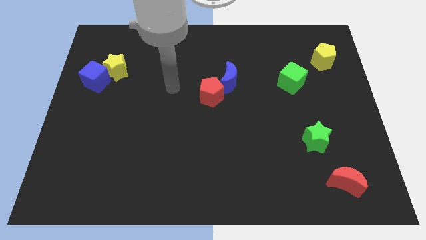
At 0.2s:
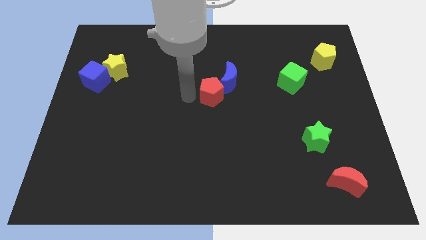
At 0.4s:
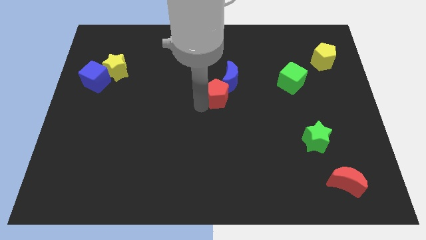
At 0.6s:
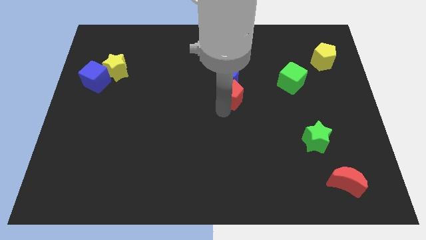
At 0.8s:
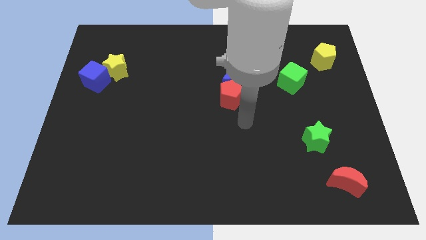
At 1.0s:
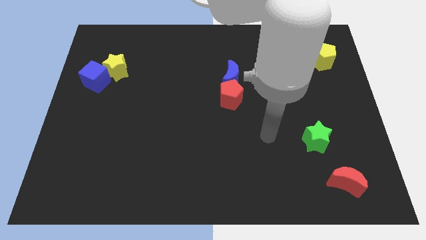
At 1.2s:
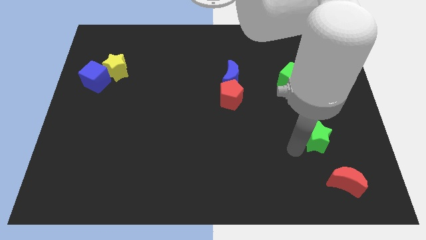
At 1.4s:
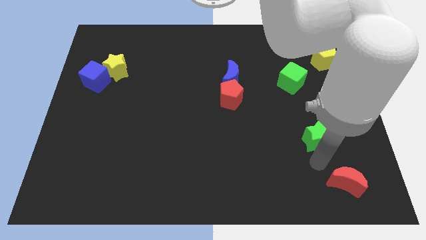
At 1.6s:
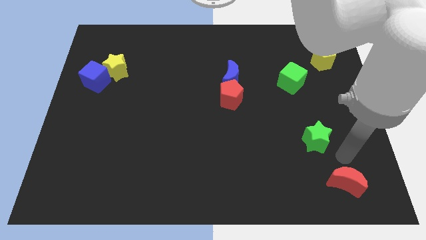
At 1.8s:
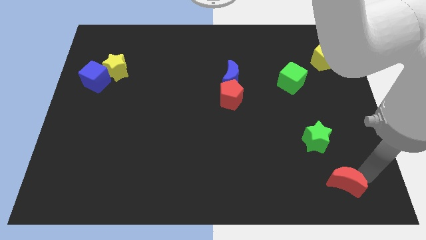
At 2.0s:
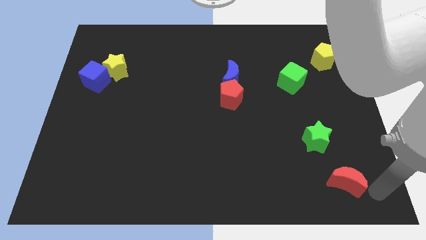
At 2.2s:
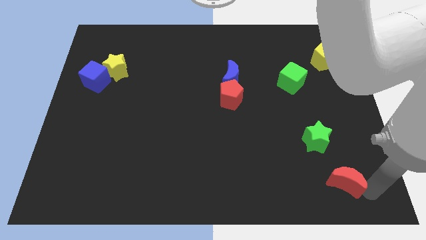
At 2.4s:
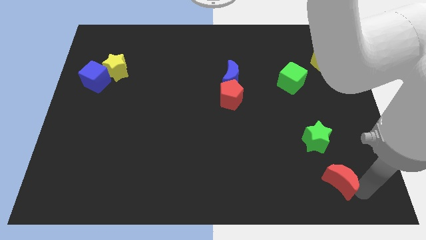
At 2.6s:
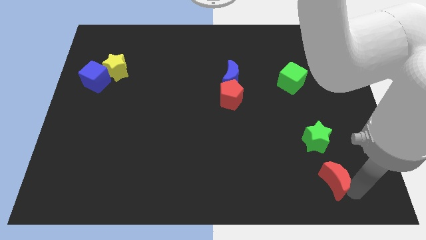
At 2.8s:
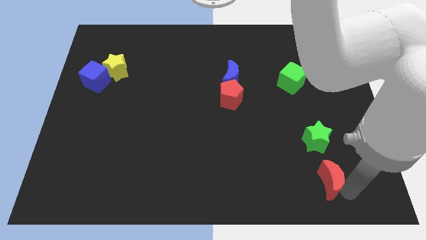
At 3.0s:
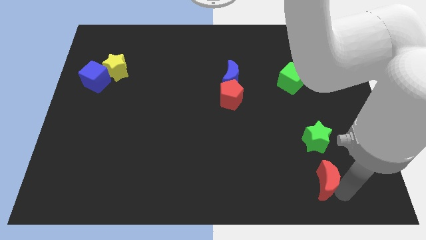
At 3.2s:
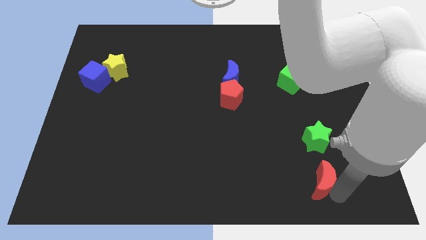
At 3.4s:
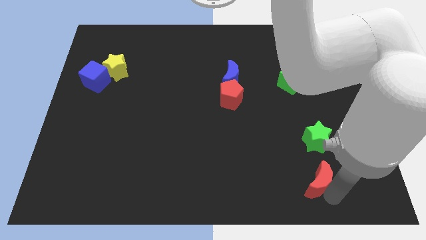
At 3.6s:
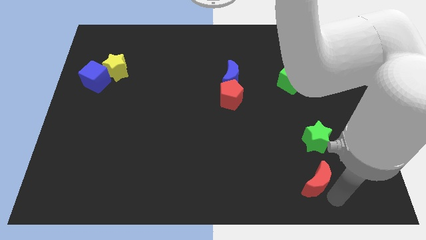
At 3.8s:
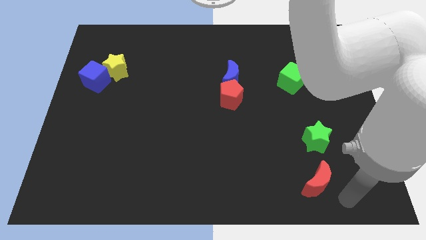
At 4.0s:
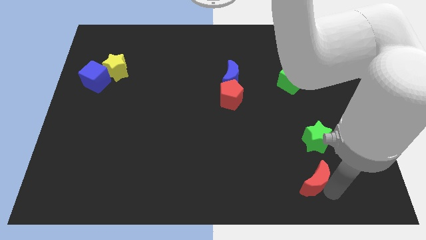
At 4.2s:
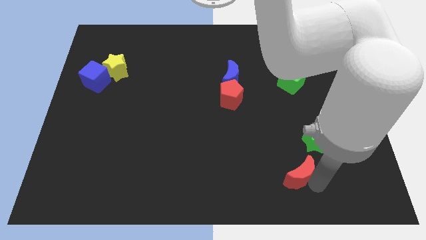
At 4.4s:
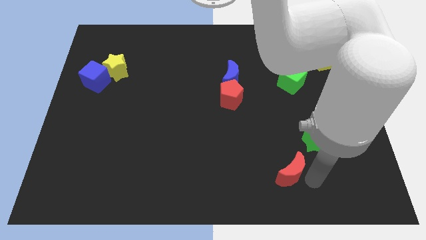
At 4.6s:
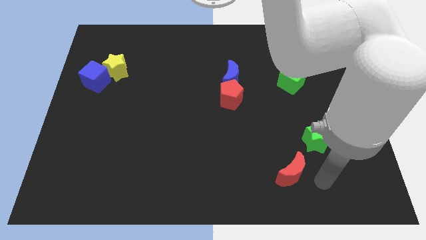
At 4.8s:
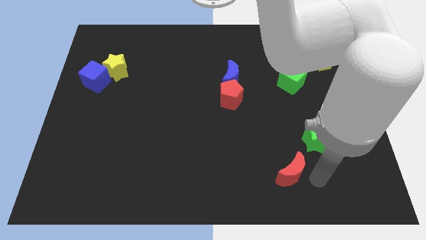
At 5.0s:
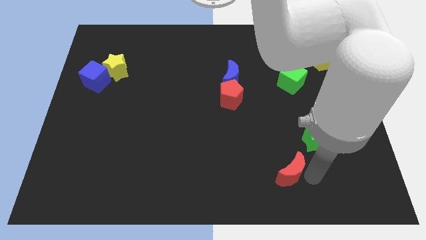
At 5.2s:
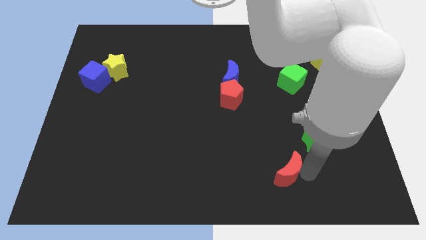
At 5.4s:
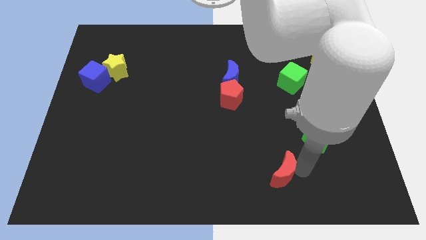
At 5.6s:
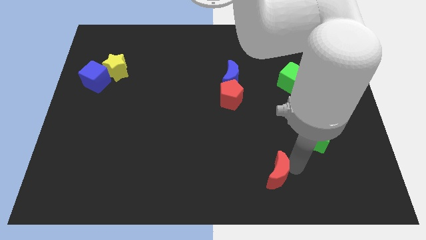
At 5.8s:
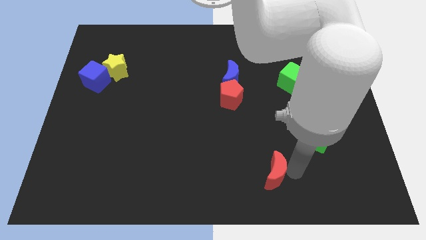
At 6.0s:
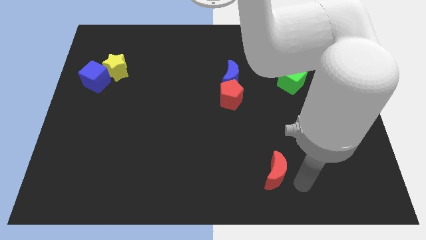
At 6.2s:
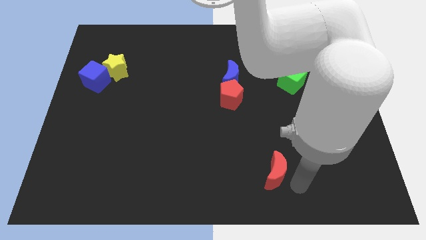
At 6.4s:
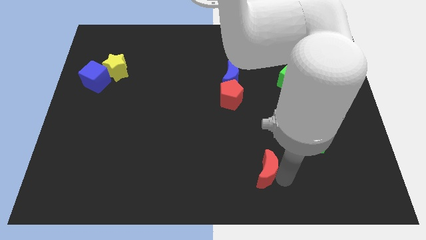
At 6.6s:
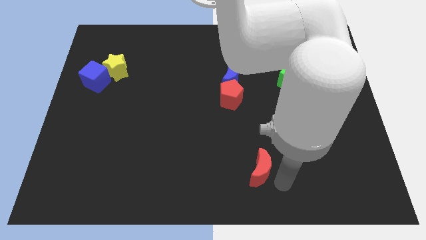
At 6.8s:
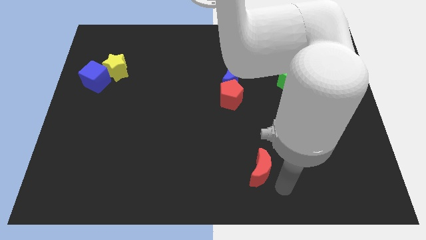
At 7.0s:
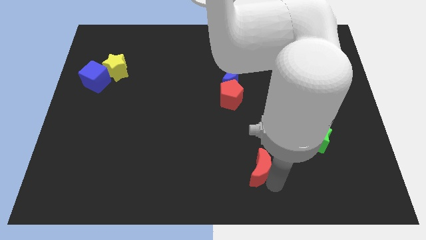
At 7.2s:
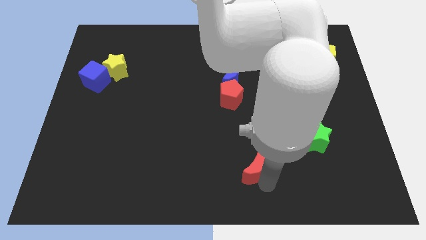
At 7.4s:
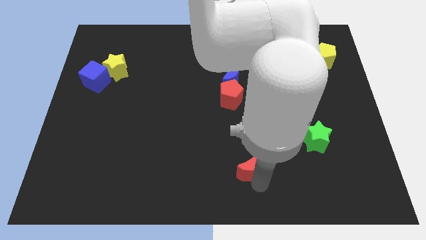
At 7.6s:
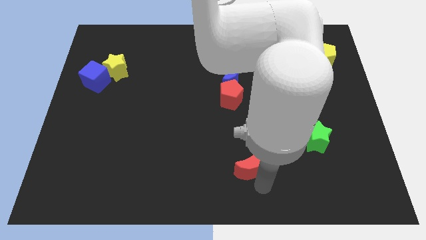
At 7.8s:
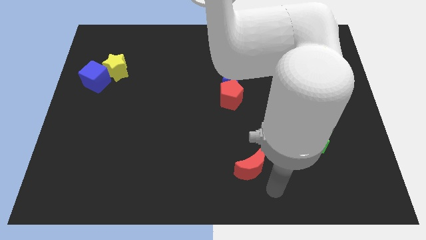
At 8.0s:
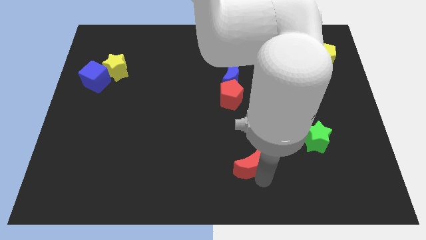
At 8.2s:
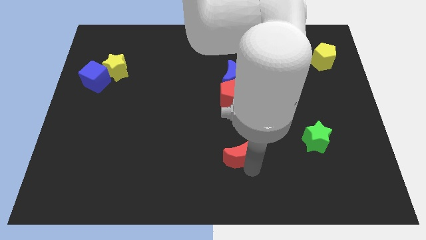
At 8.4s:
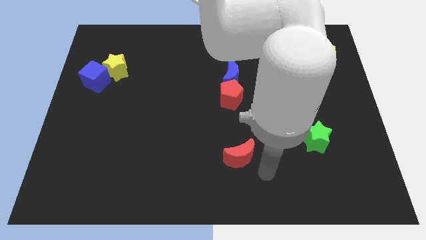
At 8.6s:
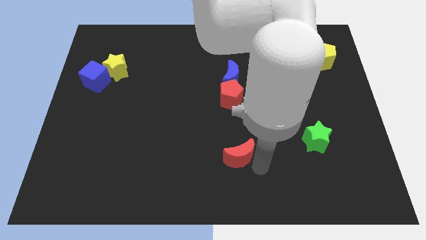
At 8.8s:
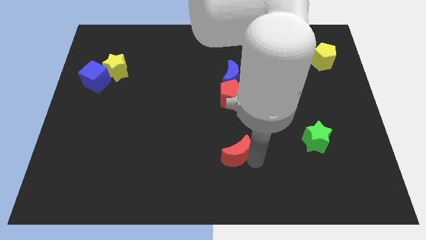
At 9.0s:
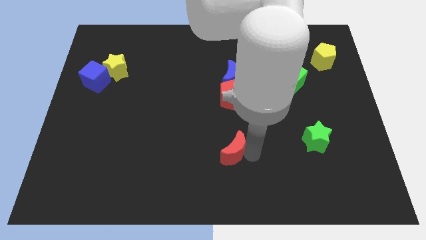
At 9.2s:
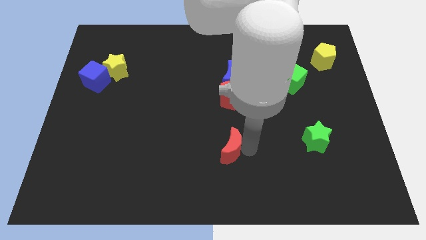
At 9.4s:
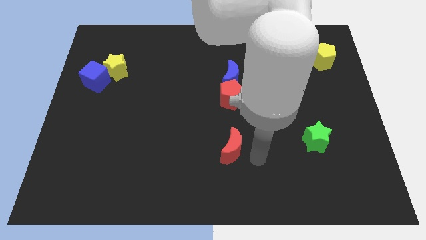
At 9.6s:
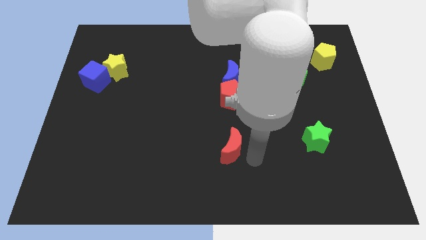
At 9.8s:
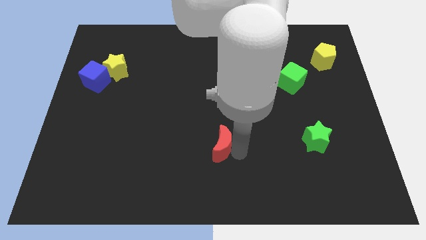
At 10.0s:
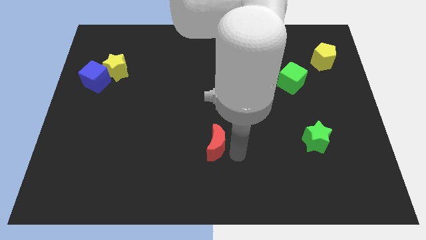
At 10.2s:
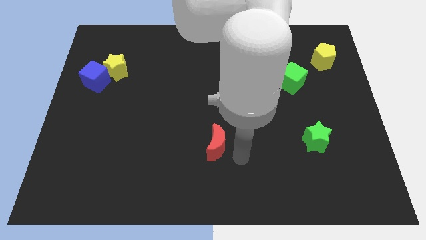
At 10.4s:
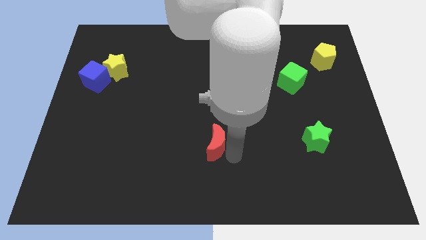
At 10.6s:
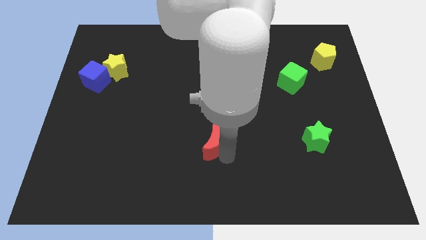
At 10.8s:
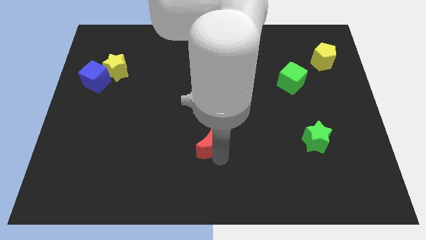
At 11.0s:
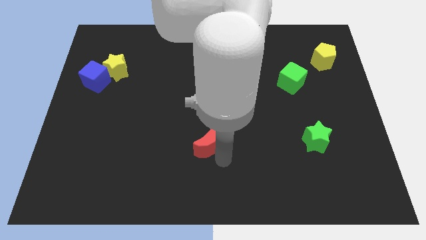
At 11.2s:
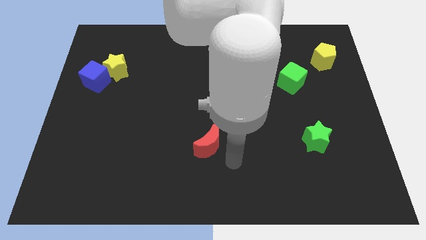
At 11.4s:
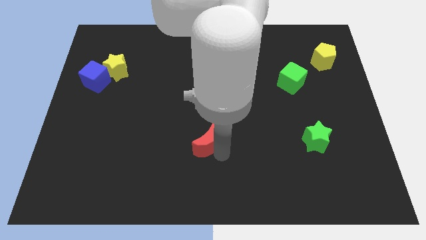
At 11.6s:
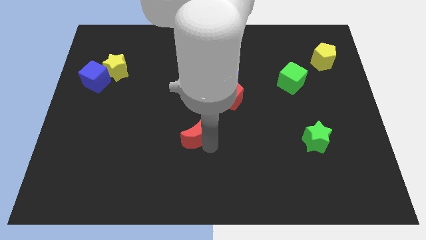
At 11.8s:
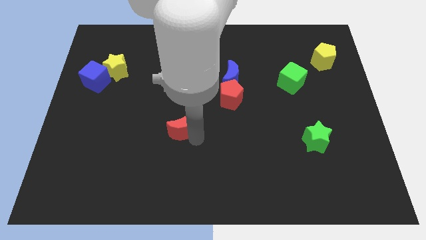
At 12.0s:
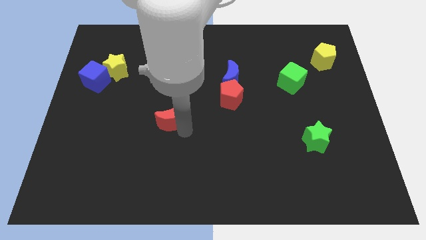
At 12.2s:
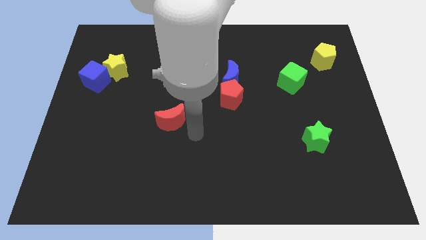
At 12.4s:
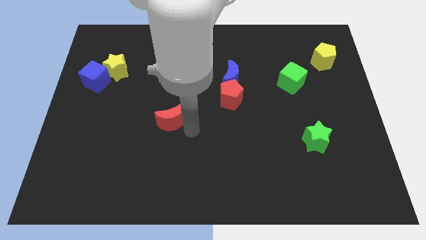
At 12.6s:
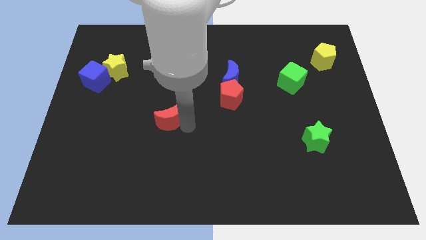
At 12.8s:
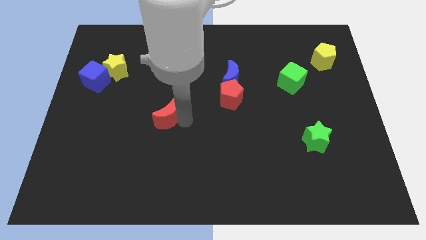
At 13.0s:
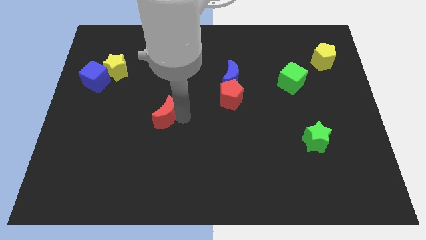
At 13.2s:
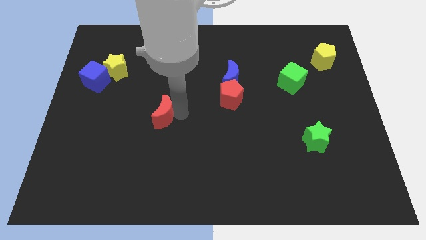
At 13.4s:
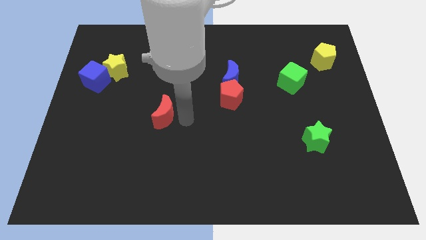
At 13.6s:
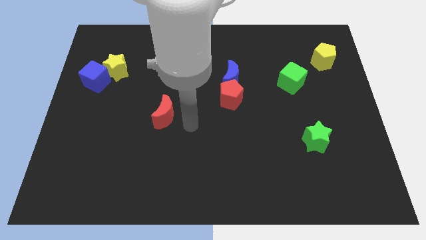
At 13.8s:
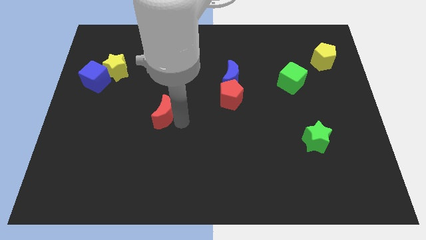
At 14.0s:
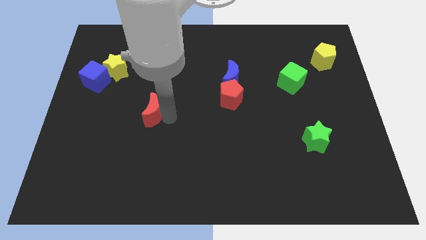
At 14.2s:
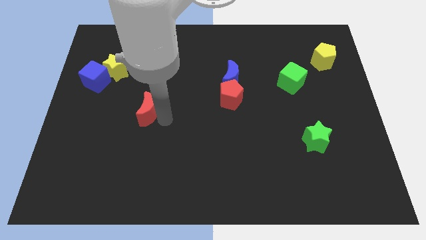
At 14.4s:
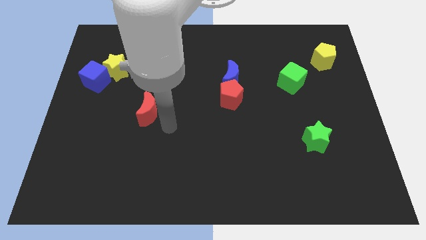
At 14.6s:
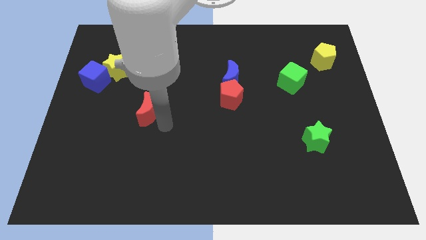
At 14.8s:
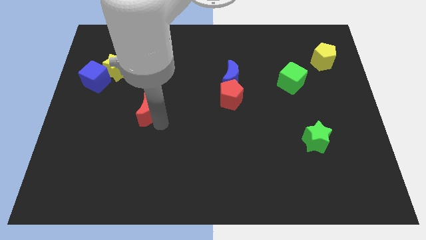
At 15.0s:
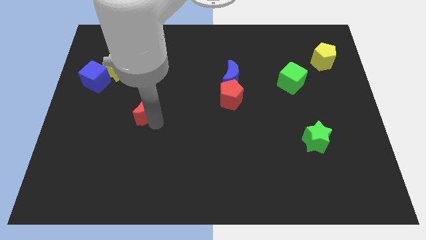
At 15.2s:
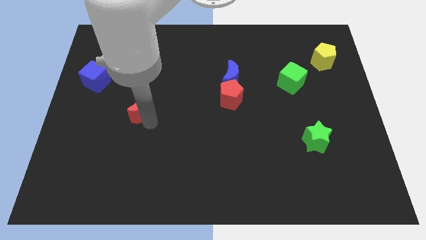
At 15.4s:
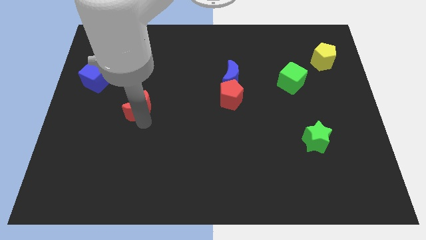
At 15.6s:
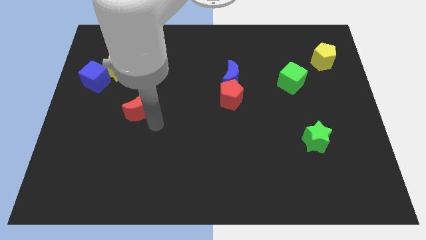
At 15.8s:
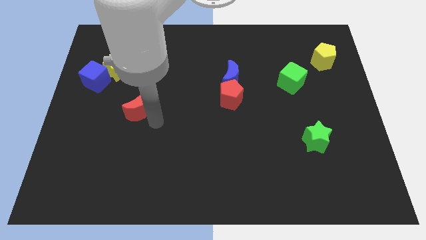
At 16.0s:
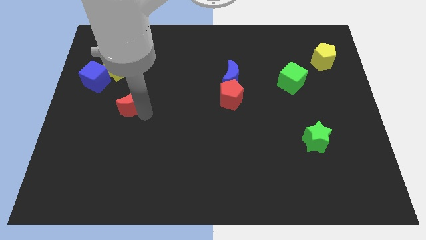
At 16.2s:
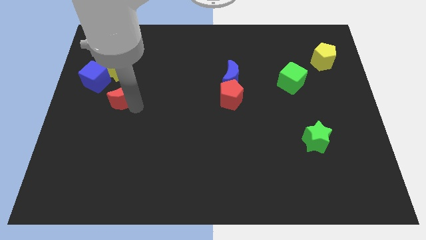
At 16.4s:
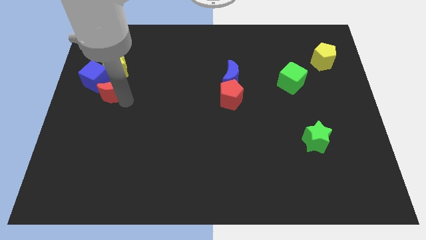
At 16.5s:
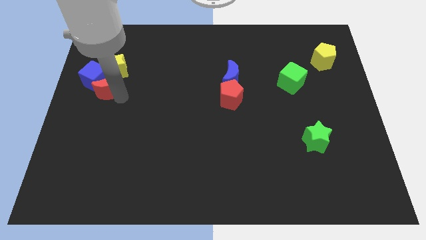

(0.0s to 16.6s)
slide the red moon to the blue cube
